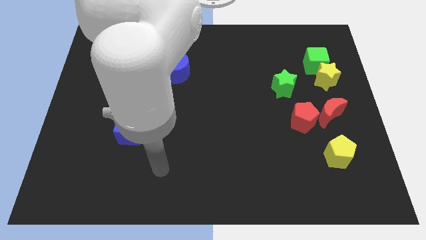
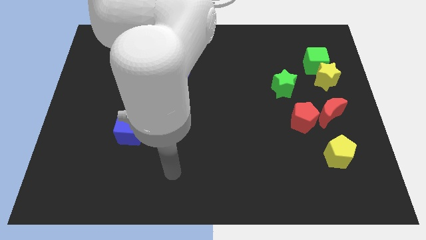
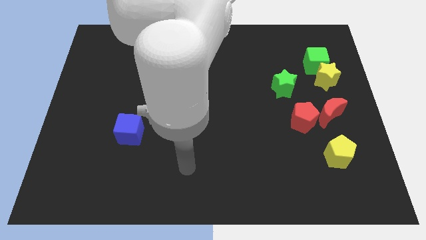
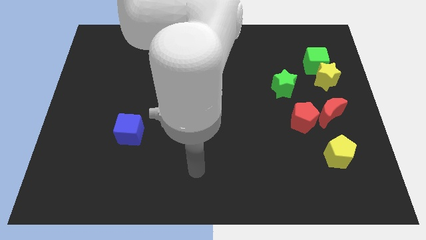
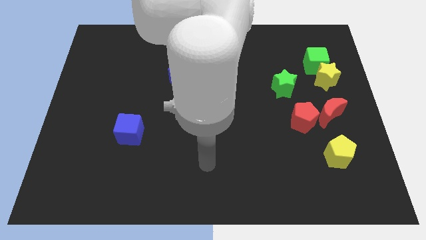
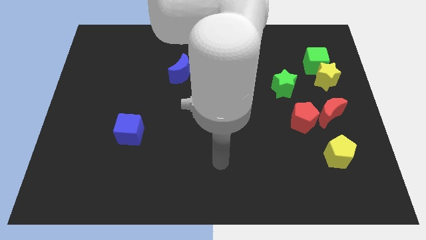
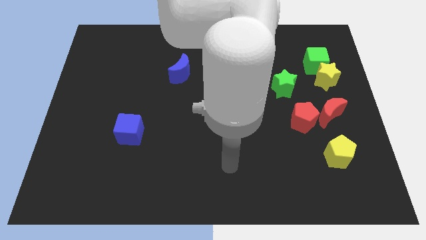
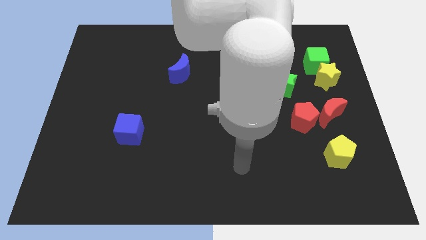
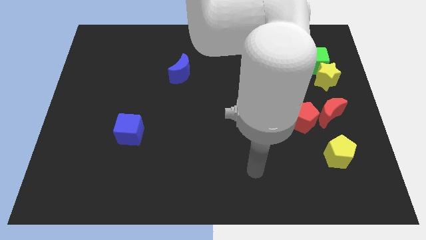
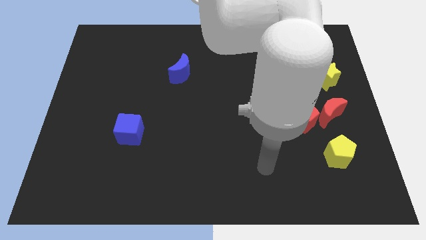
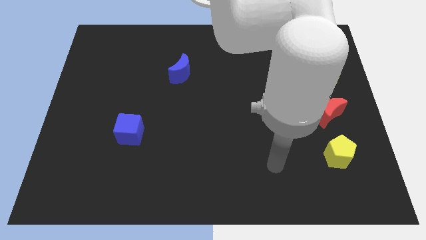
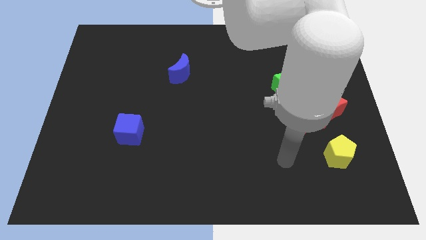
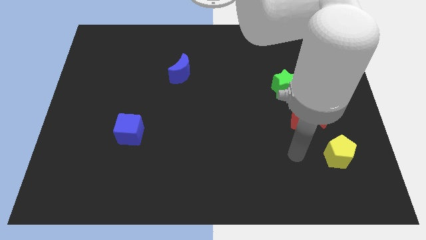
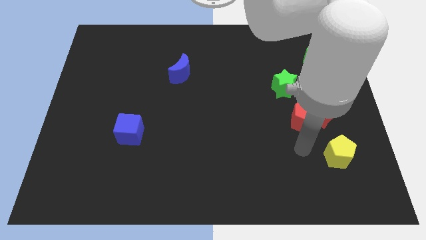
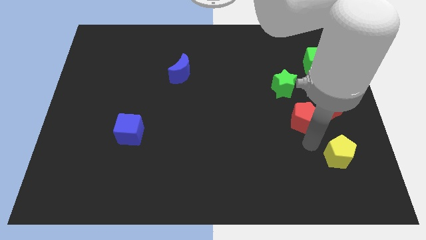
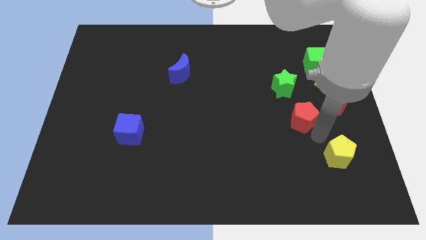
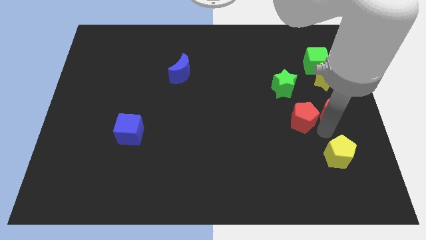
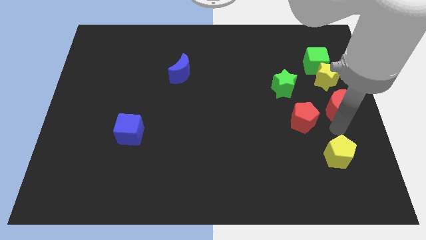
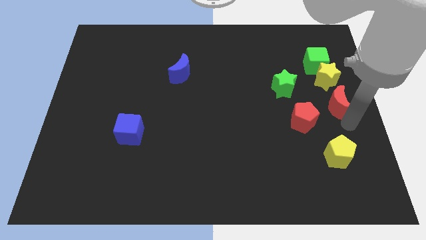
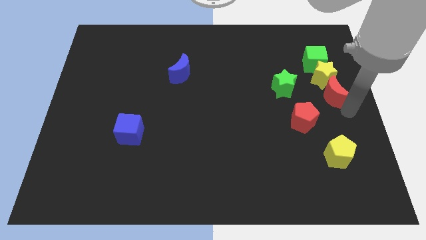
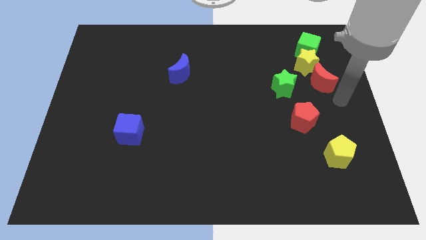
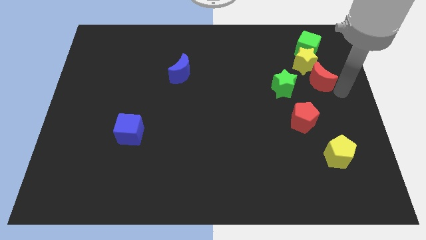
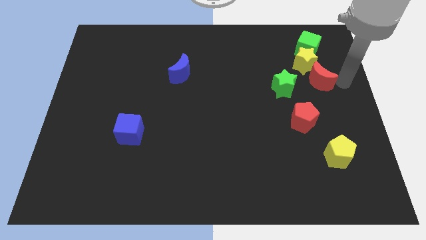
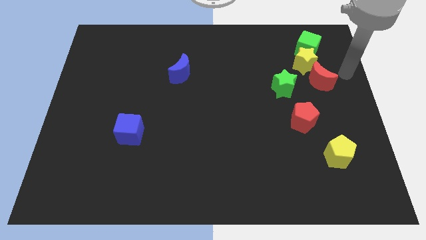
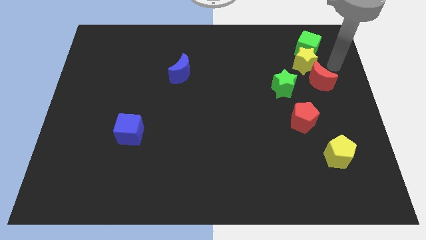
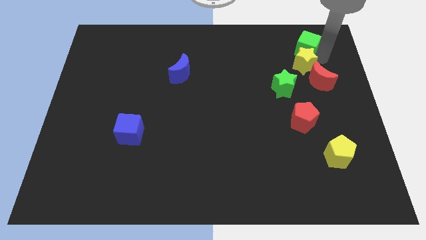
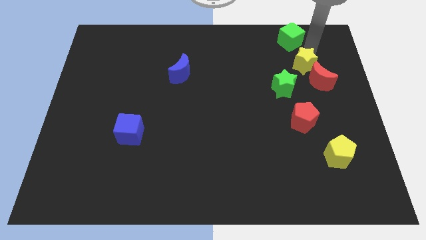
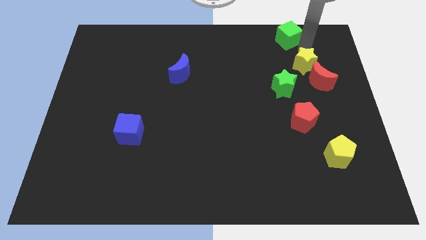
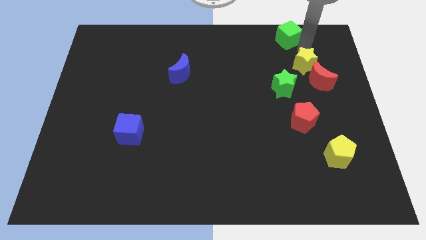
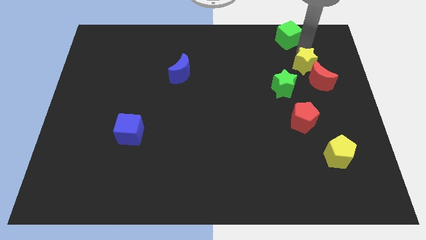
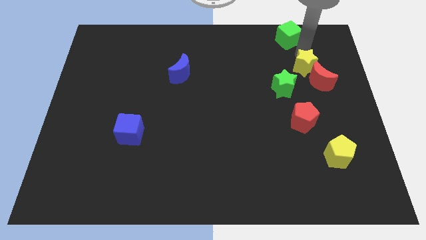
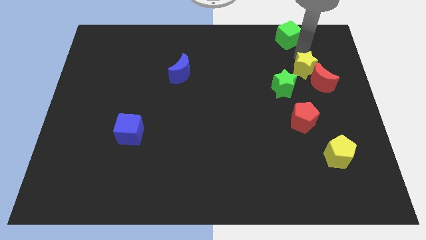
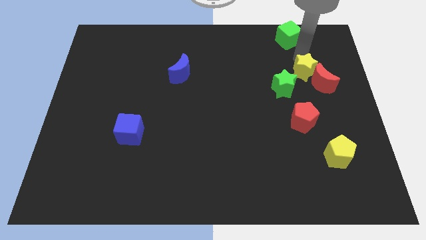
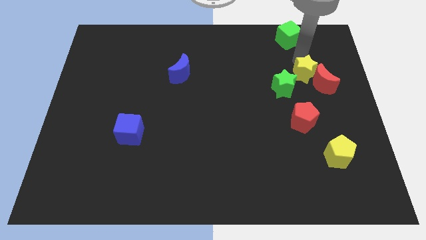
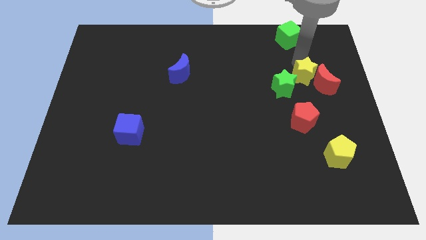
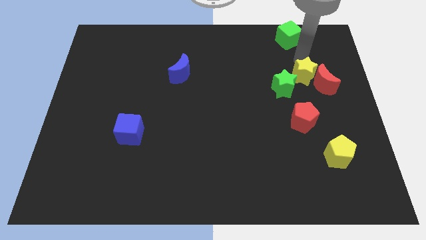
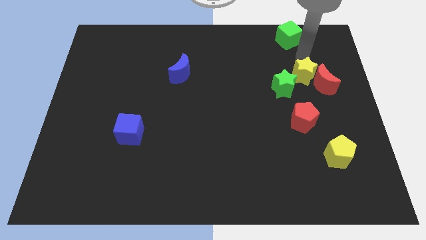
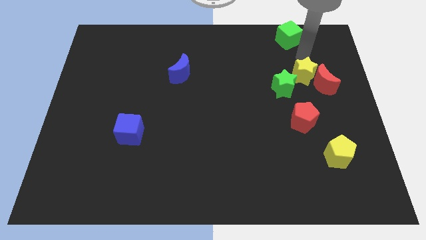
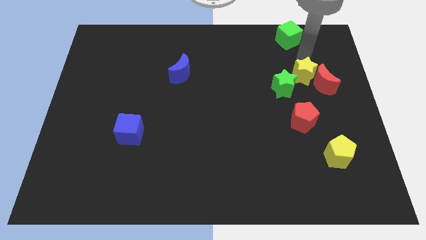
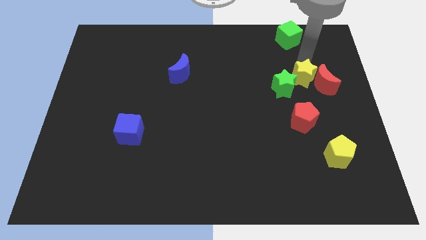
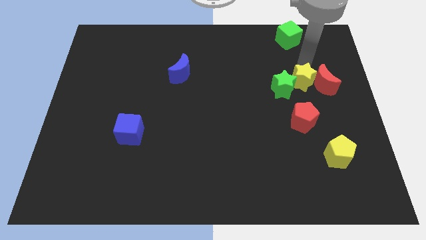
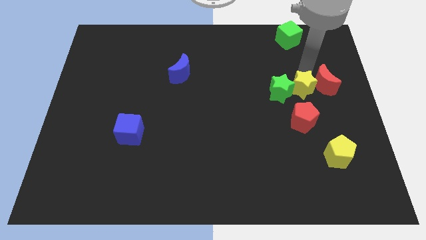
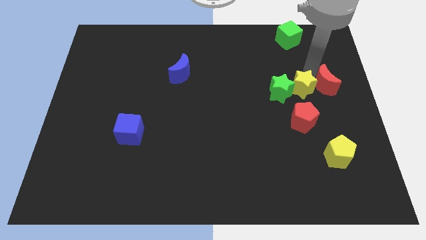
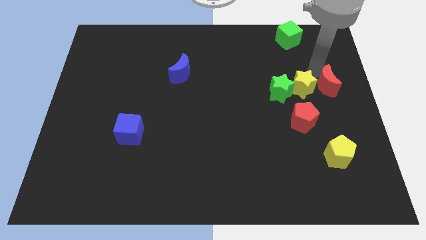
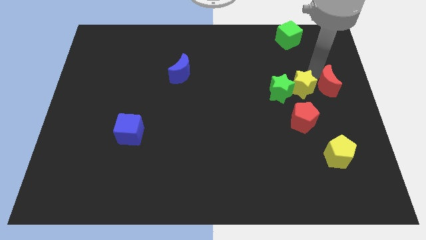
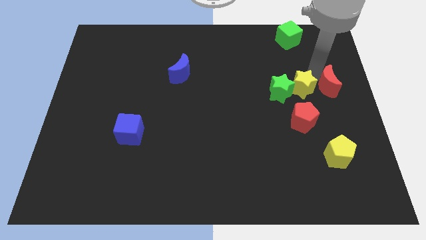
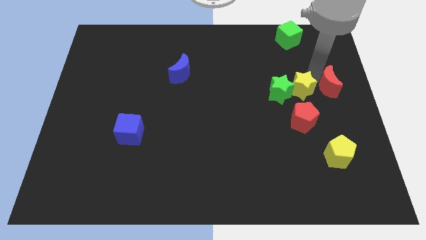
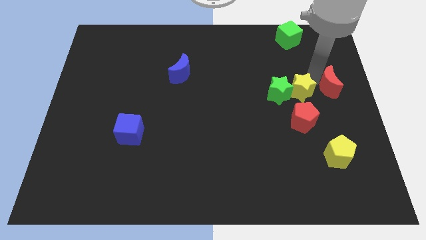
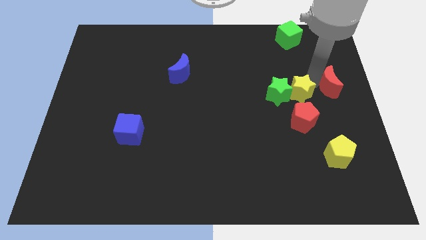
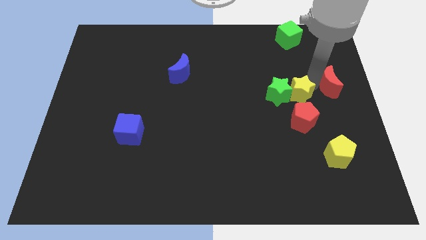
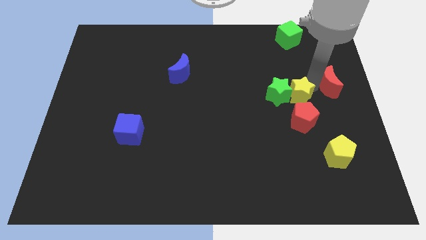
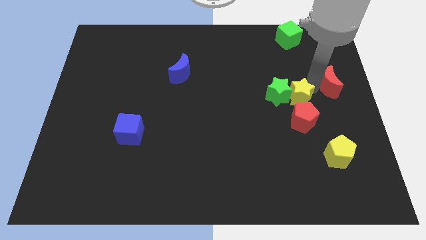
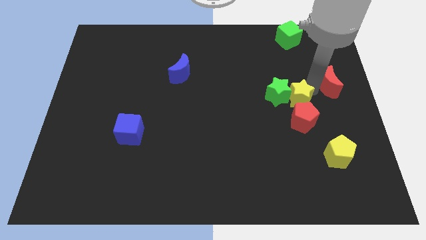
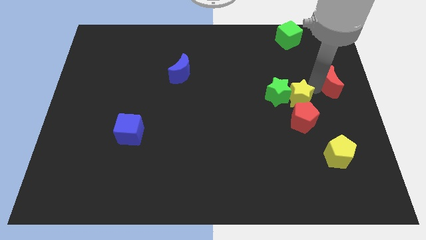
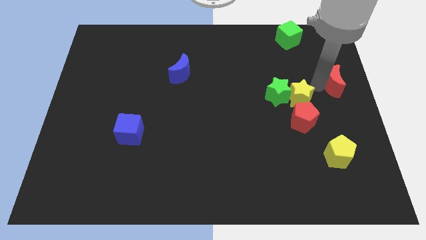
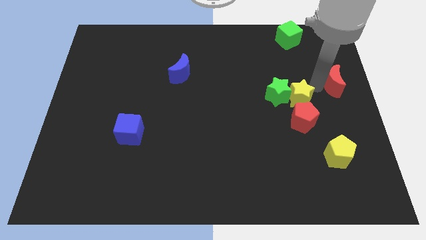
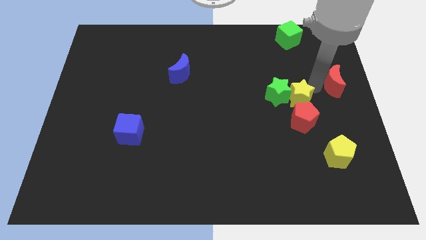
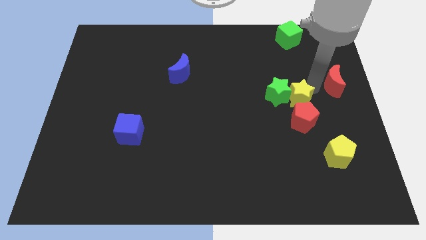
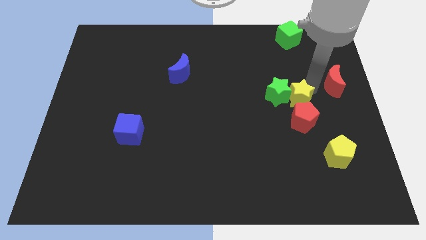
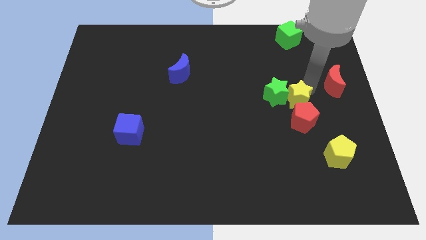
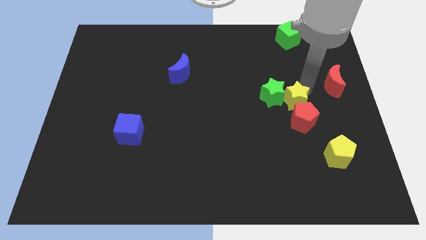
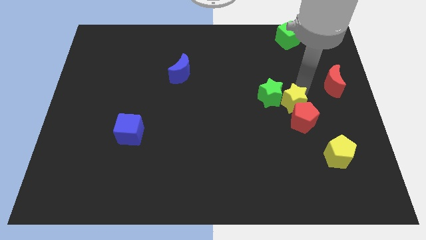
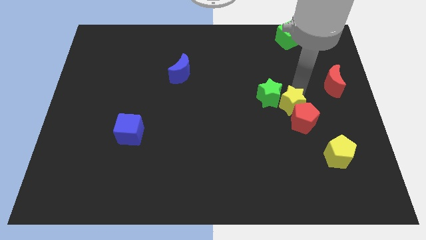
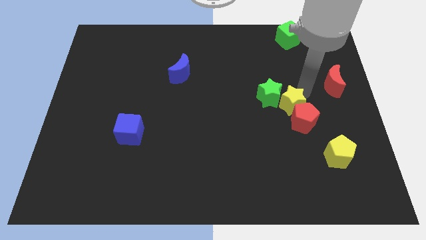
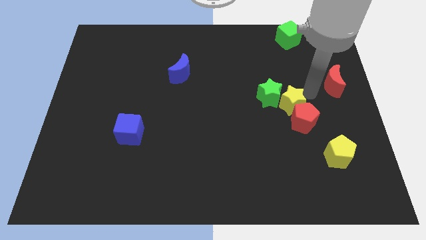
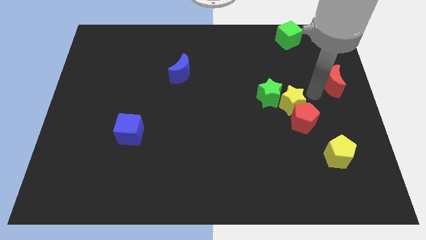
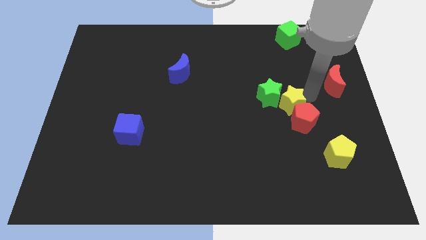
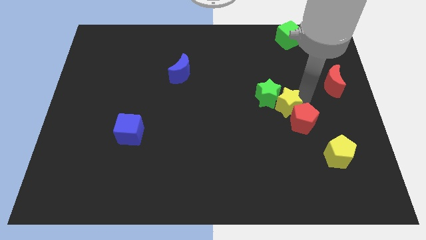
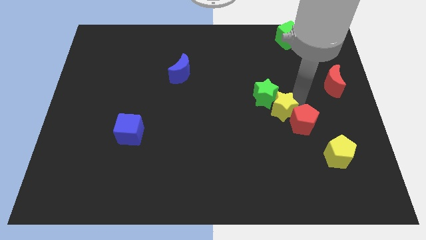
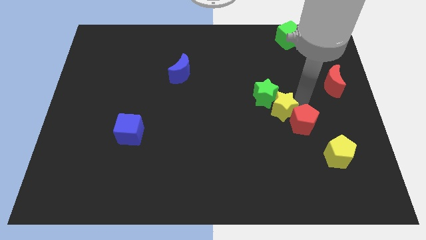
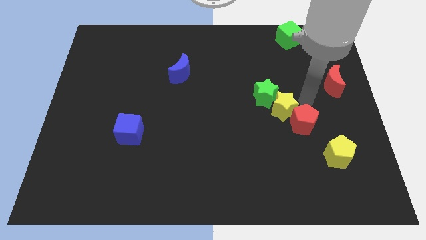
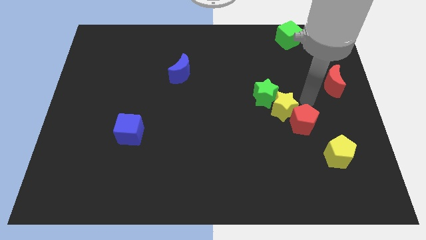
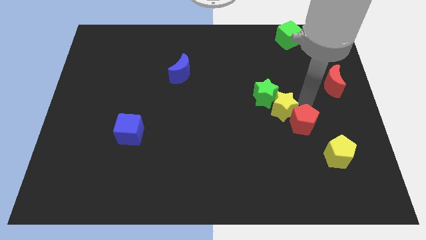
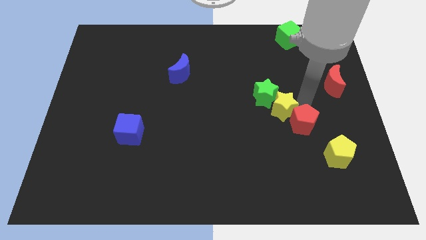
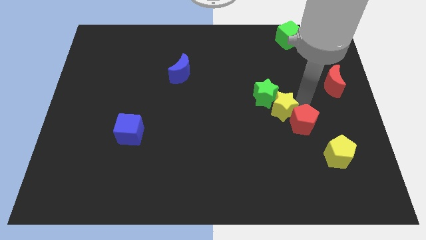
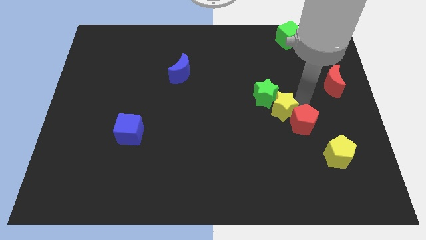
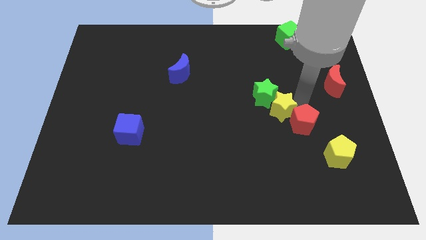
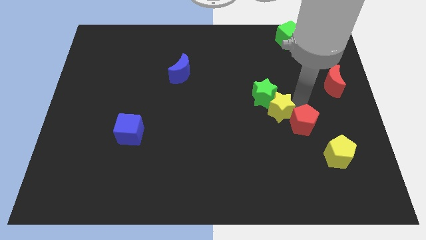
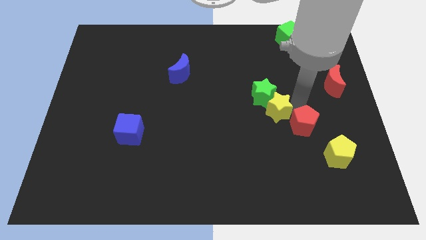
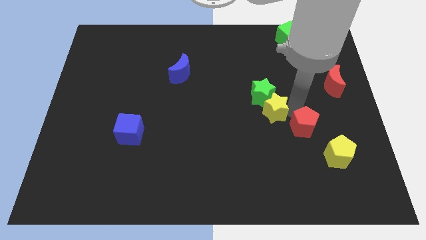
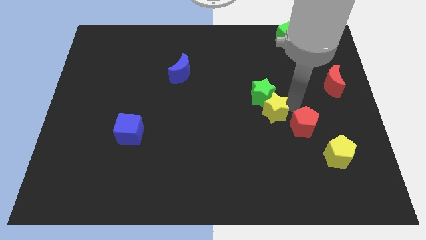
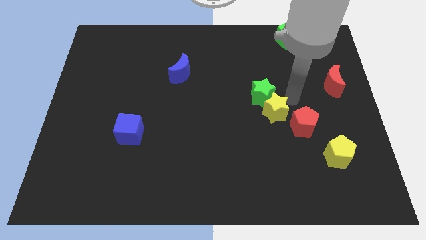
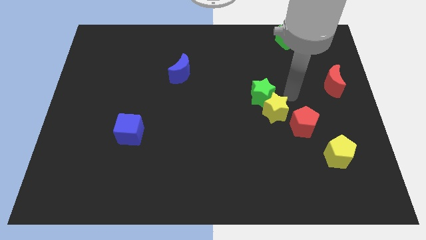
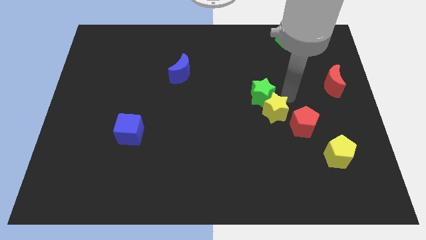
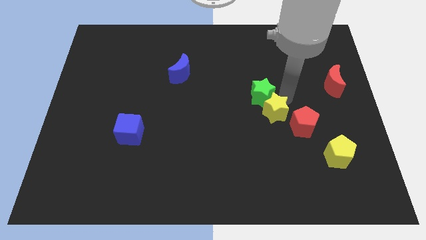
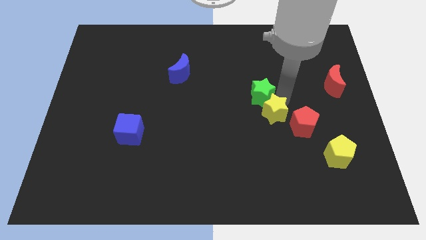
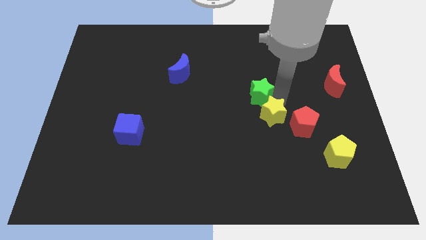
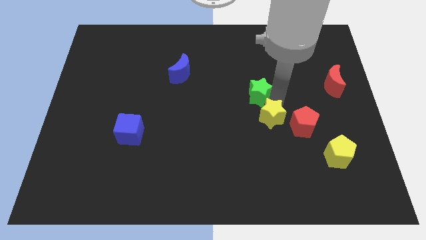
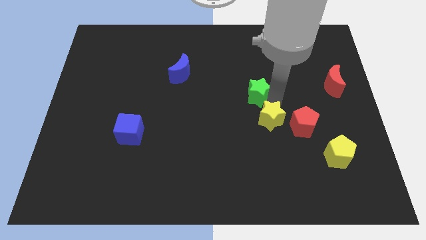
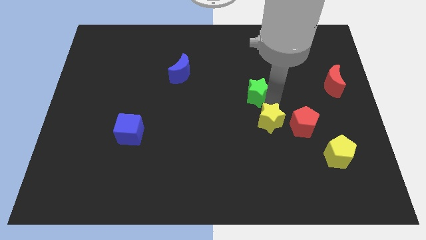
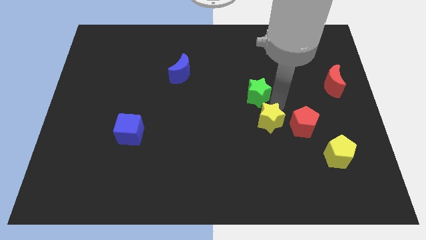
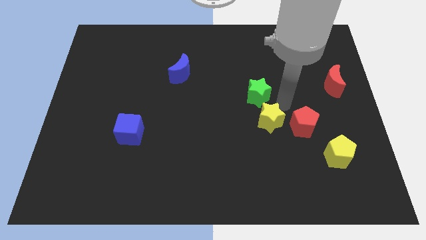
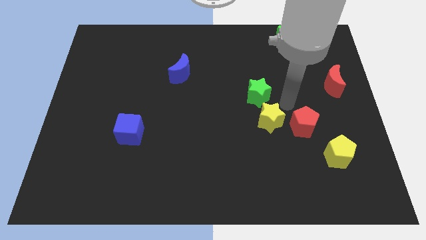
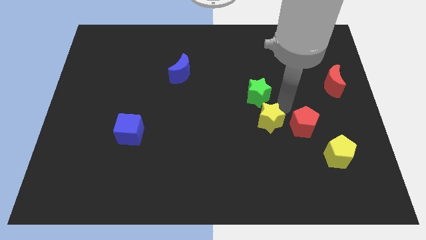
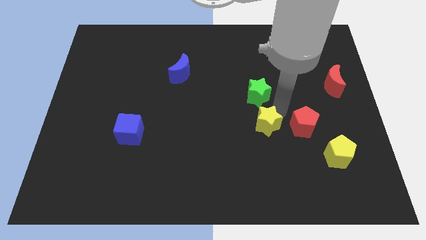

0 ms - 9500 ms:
move the yellow star downwards and to the left diagonally
